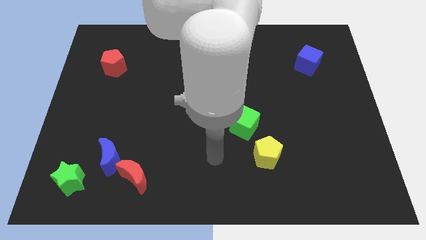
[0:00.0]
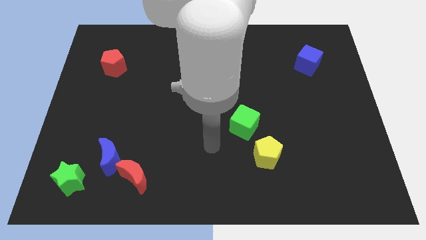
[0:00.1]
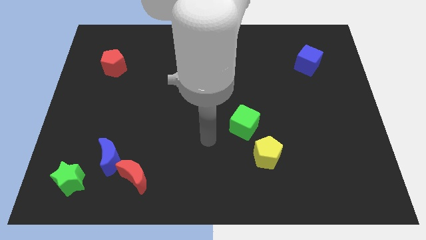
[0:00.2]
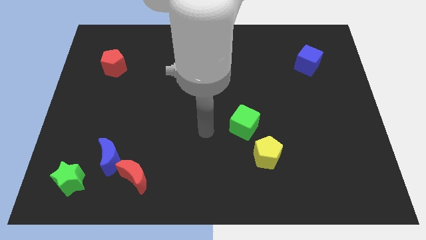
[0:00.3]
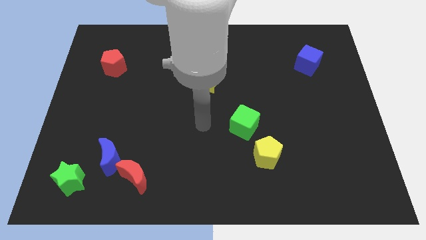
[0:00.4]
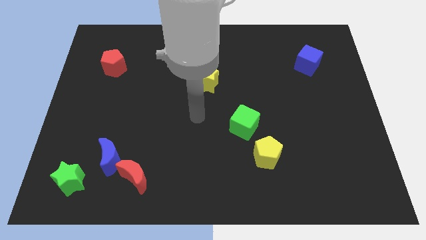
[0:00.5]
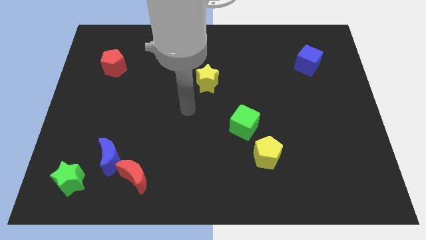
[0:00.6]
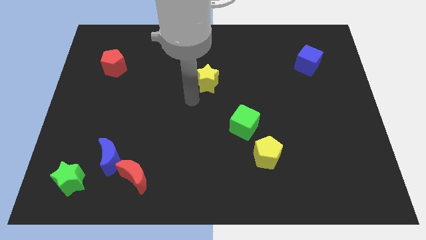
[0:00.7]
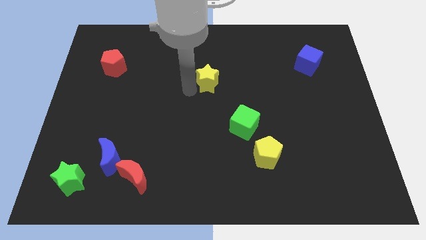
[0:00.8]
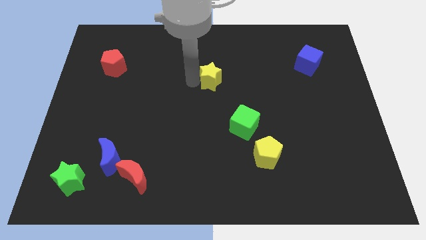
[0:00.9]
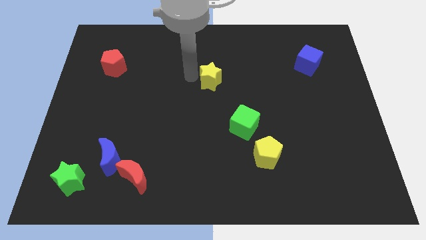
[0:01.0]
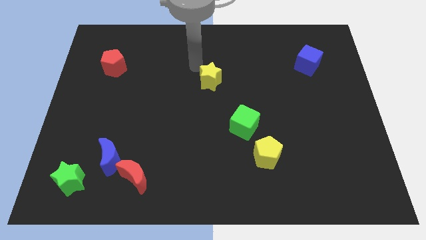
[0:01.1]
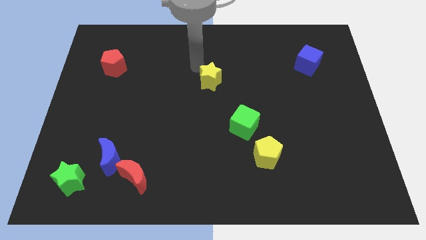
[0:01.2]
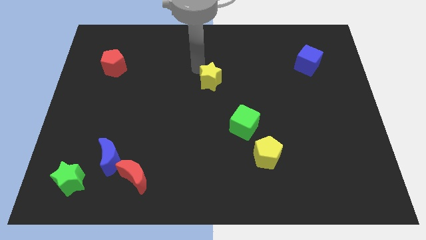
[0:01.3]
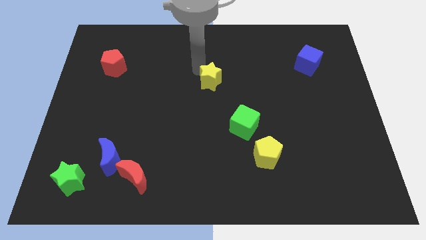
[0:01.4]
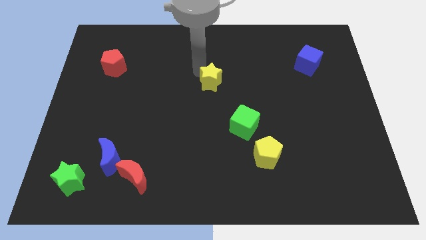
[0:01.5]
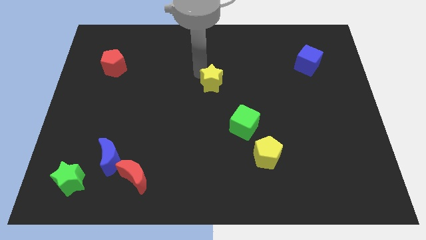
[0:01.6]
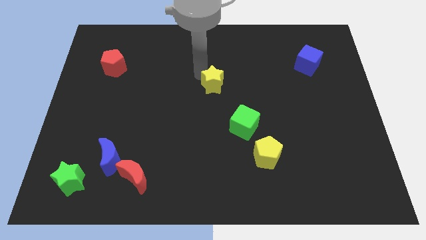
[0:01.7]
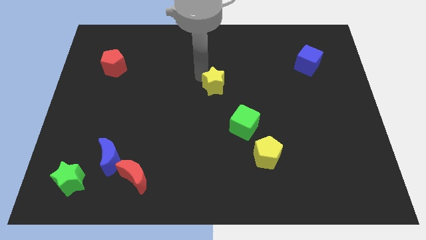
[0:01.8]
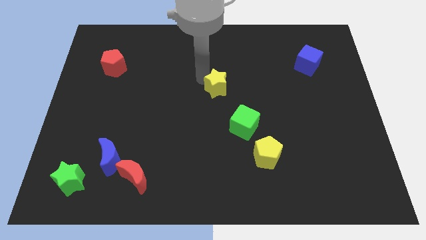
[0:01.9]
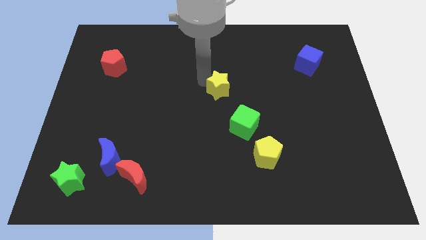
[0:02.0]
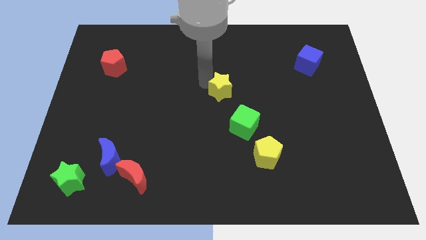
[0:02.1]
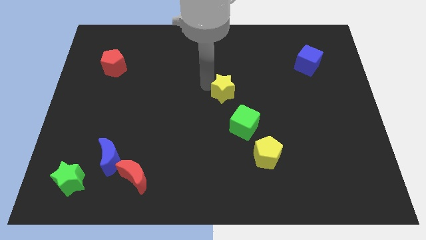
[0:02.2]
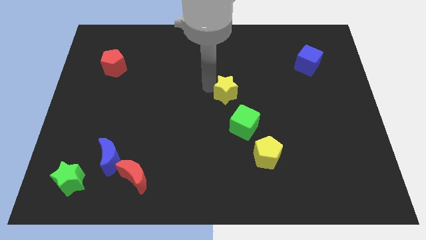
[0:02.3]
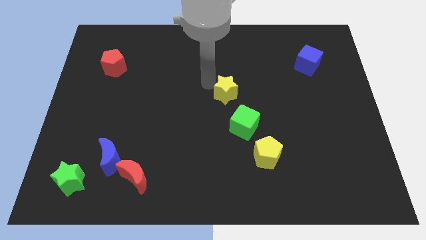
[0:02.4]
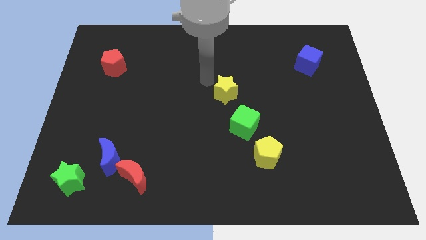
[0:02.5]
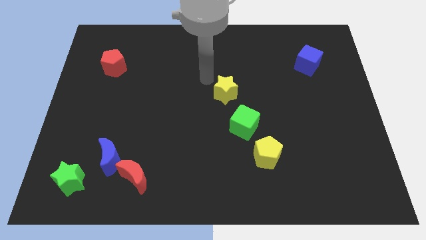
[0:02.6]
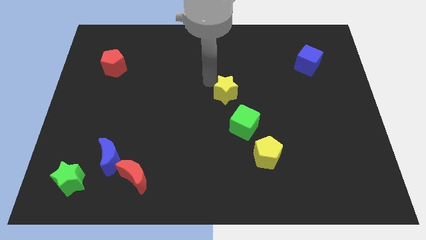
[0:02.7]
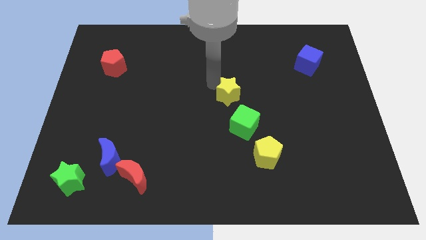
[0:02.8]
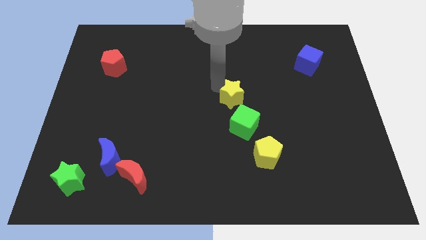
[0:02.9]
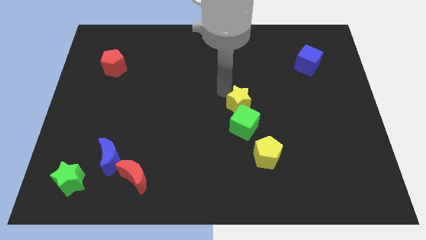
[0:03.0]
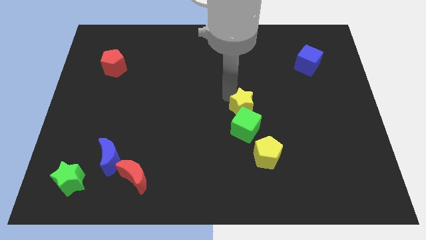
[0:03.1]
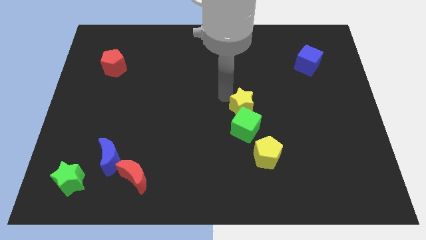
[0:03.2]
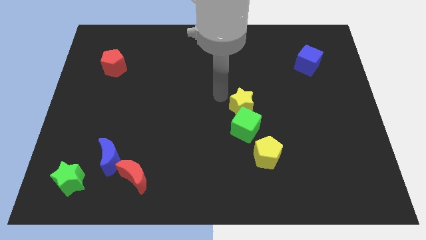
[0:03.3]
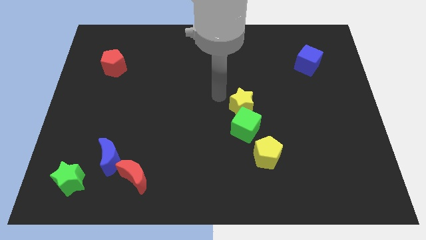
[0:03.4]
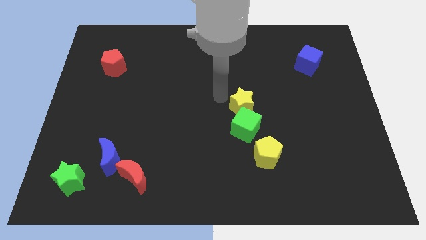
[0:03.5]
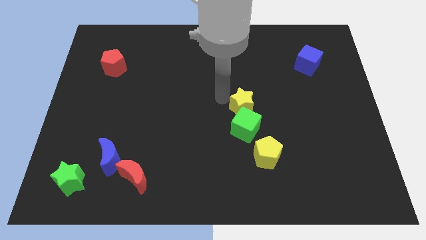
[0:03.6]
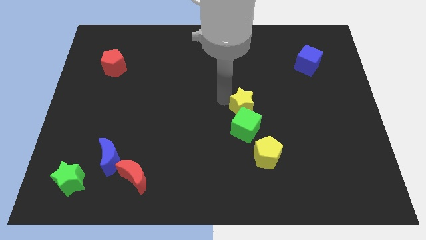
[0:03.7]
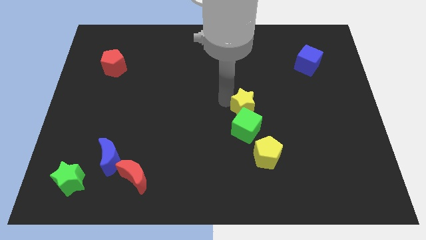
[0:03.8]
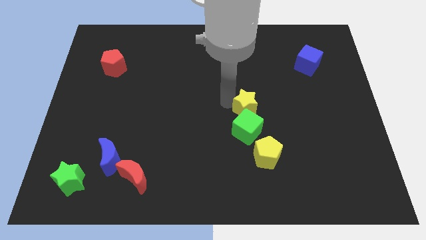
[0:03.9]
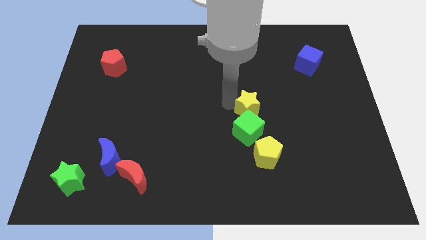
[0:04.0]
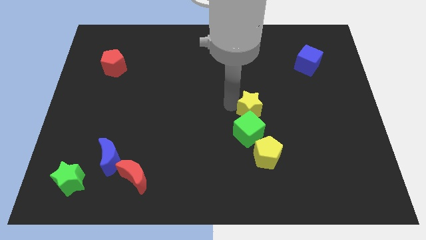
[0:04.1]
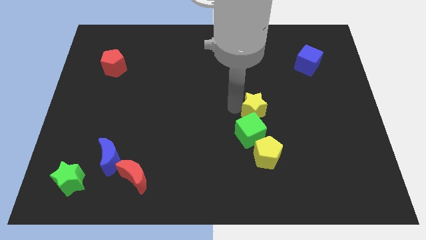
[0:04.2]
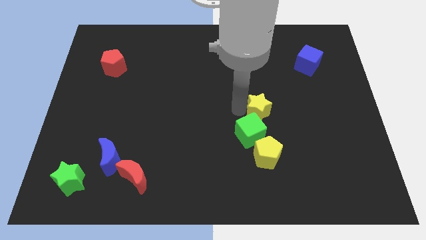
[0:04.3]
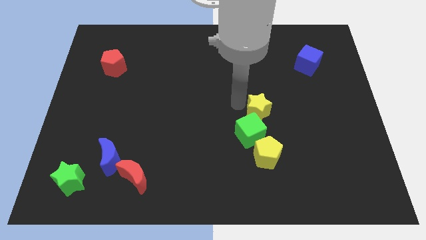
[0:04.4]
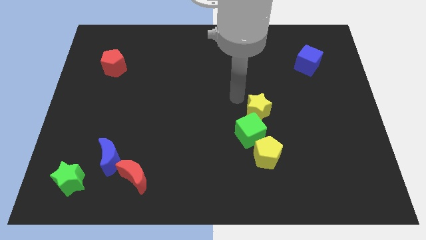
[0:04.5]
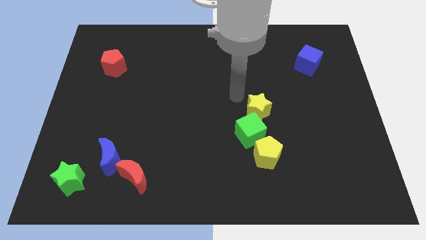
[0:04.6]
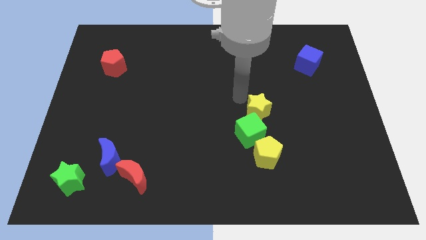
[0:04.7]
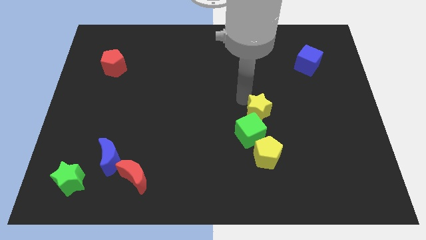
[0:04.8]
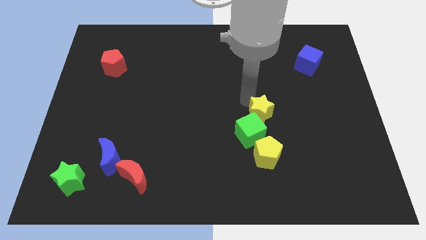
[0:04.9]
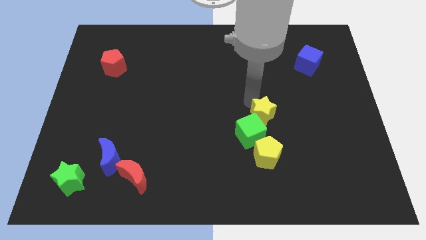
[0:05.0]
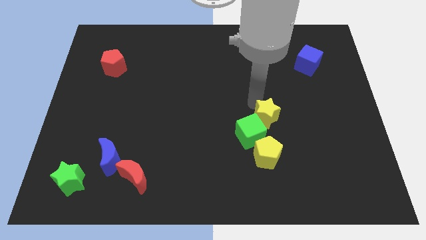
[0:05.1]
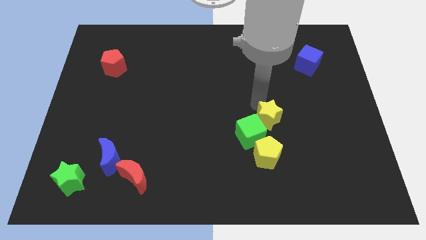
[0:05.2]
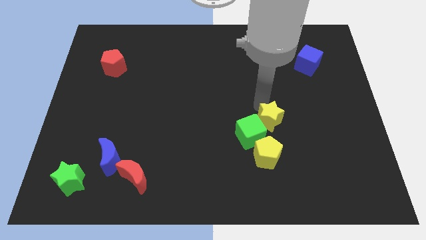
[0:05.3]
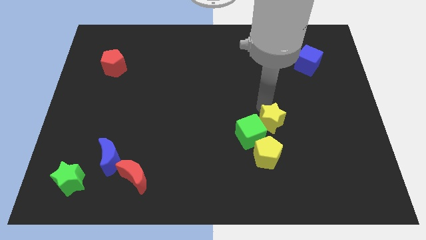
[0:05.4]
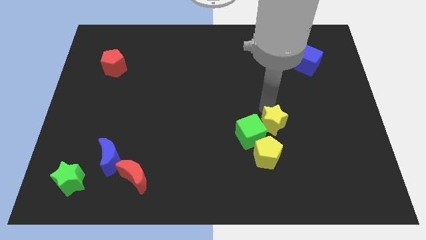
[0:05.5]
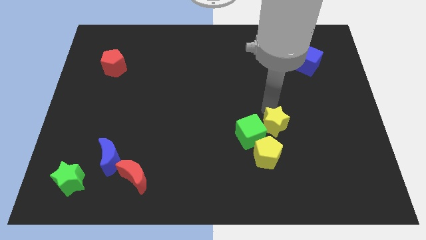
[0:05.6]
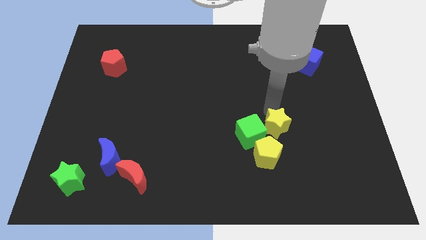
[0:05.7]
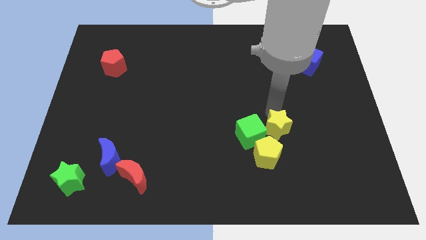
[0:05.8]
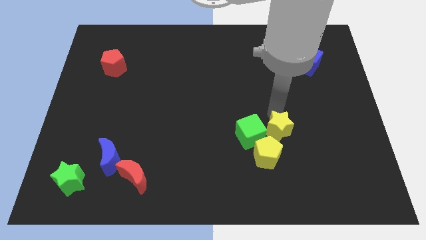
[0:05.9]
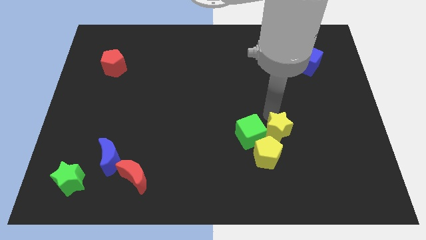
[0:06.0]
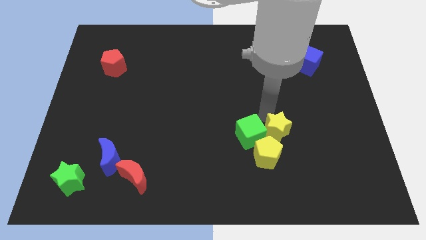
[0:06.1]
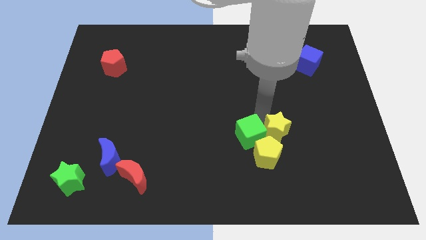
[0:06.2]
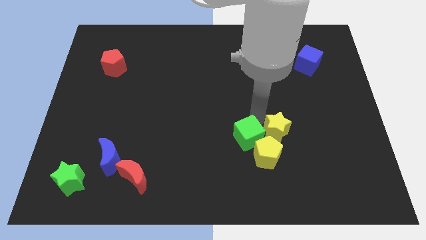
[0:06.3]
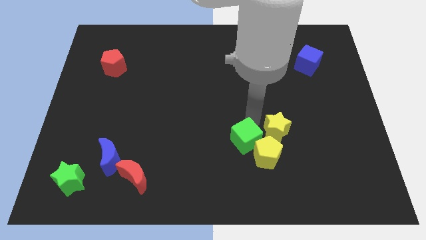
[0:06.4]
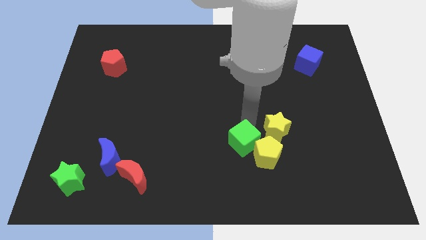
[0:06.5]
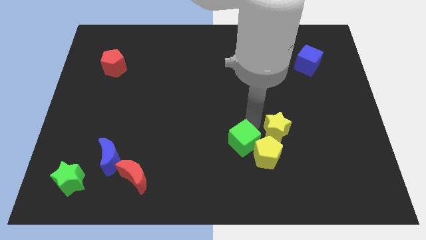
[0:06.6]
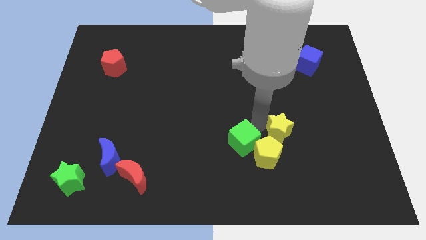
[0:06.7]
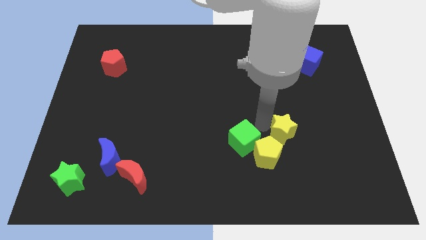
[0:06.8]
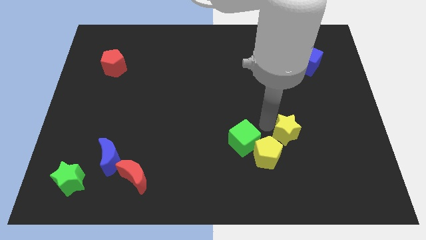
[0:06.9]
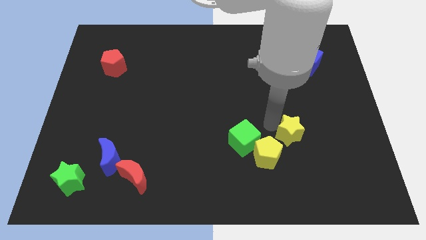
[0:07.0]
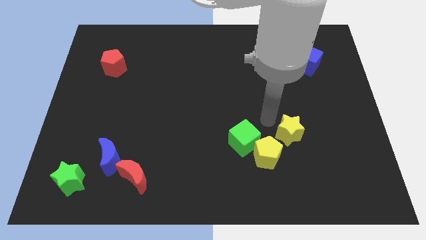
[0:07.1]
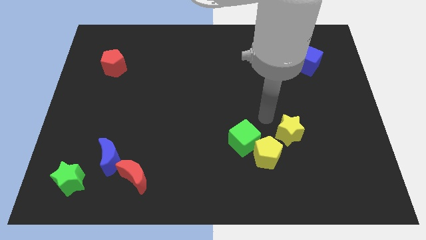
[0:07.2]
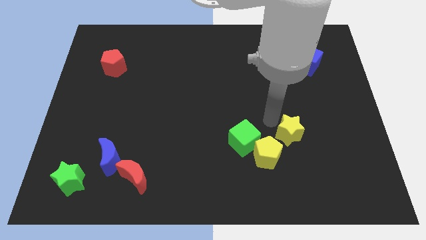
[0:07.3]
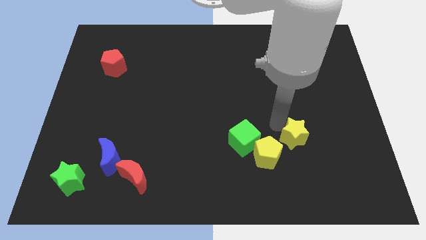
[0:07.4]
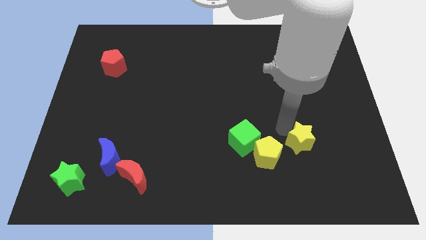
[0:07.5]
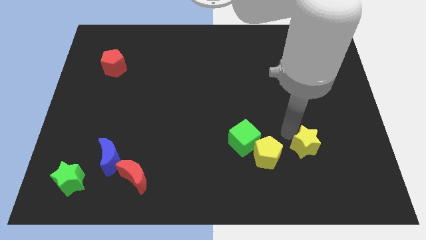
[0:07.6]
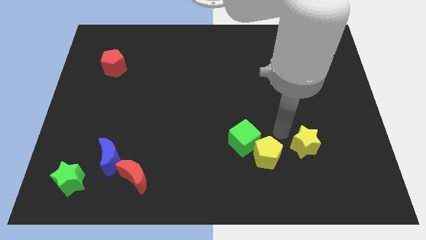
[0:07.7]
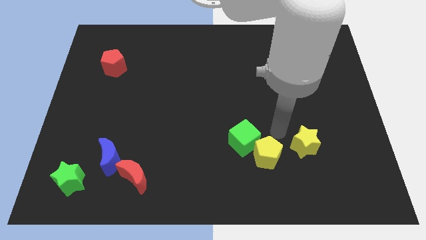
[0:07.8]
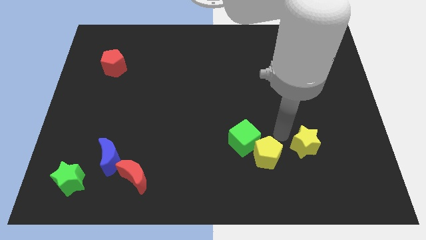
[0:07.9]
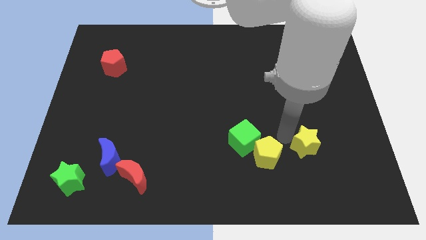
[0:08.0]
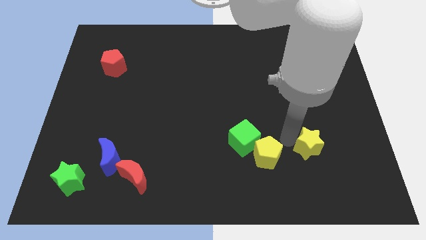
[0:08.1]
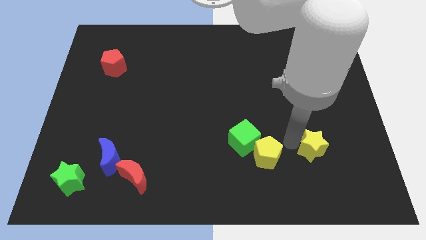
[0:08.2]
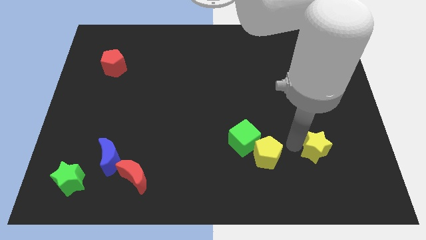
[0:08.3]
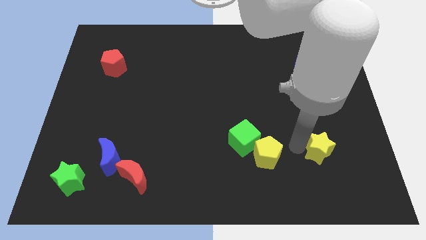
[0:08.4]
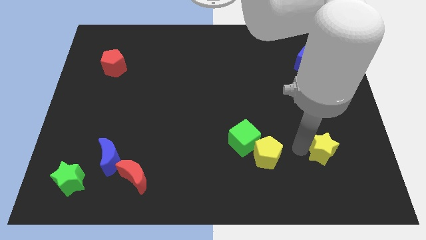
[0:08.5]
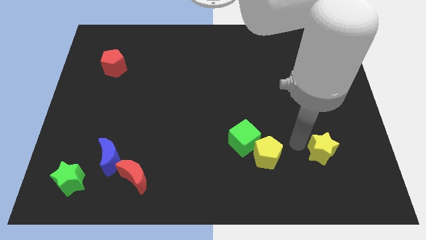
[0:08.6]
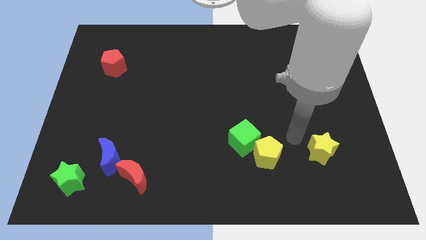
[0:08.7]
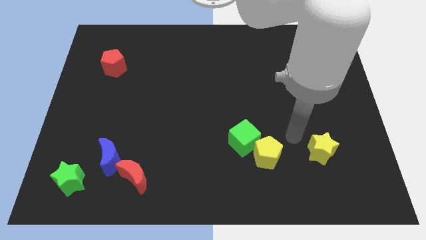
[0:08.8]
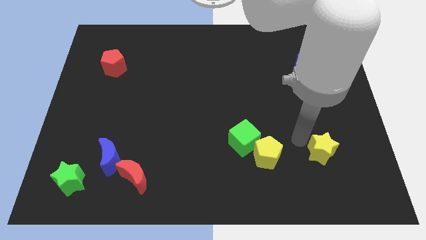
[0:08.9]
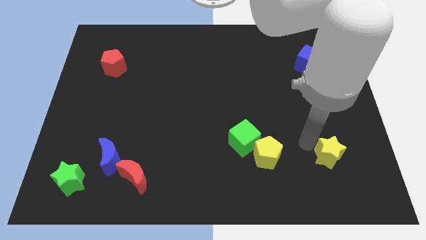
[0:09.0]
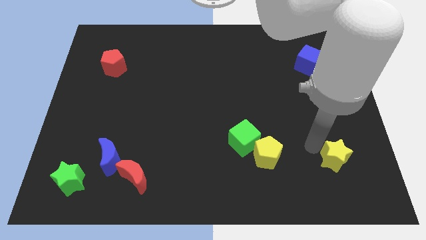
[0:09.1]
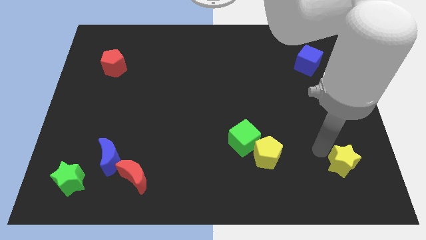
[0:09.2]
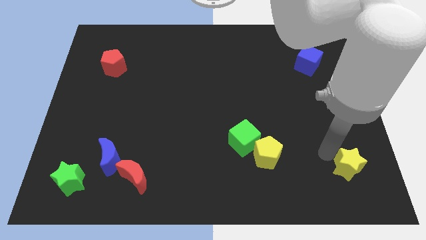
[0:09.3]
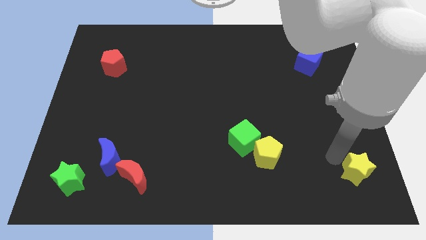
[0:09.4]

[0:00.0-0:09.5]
push the yellow star to the lower right corner
